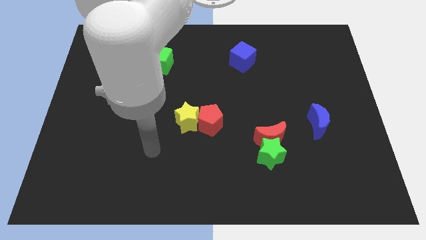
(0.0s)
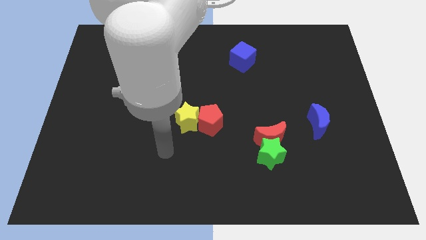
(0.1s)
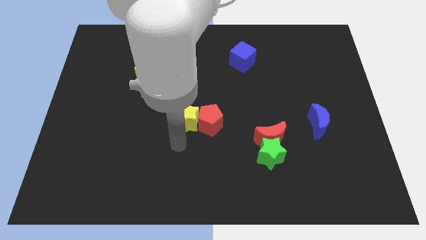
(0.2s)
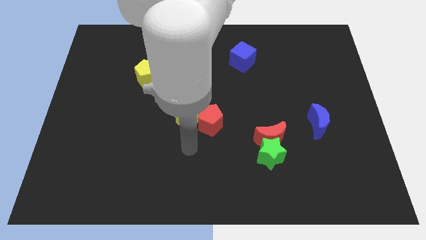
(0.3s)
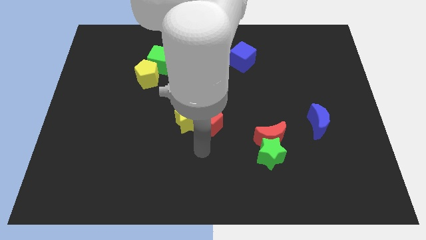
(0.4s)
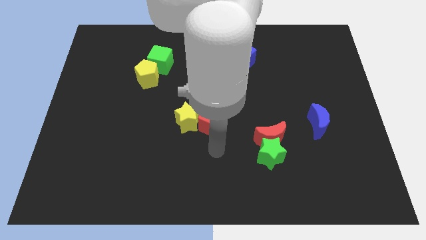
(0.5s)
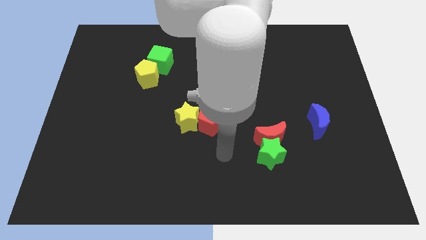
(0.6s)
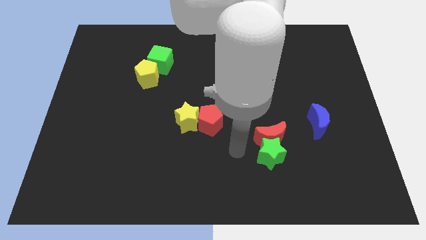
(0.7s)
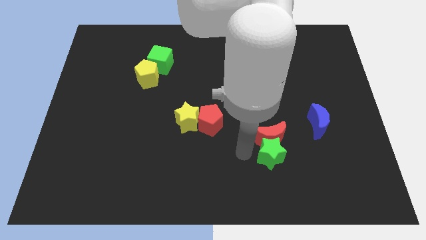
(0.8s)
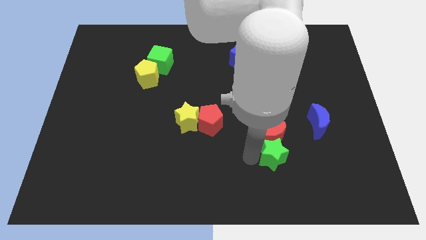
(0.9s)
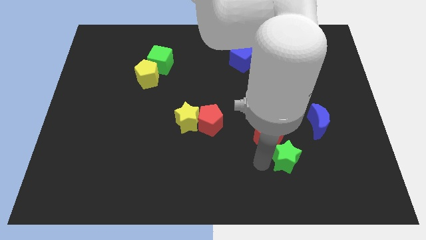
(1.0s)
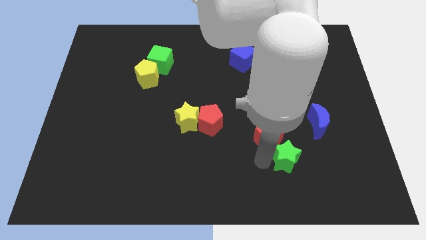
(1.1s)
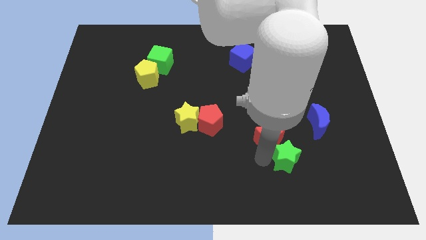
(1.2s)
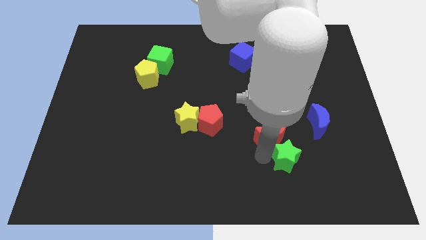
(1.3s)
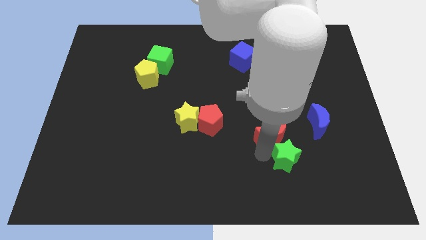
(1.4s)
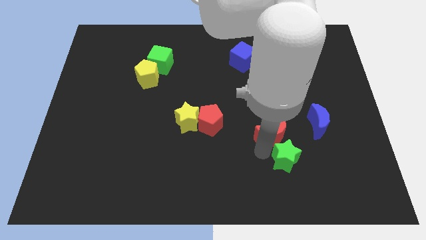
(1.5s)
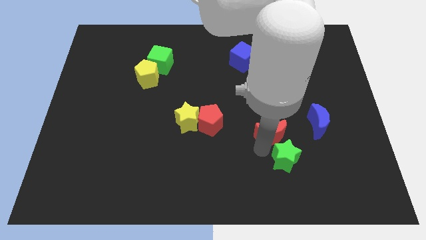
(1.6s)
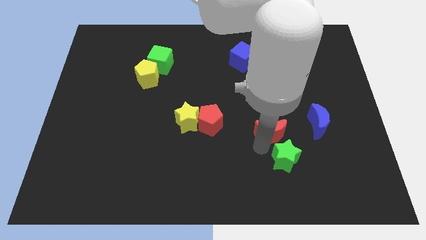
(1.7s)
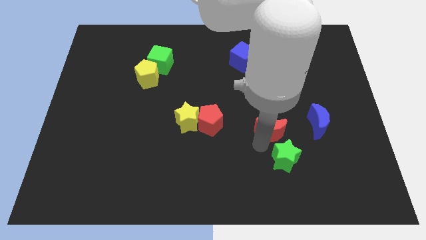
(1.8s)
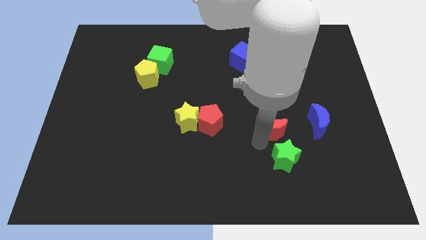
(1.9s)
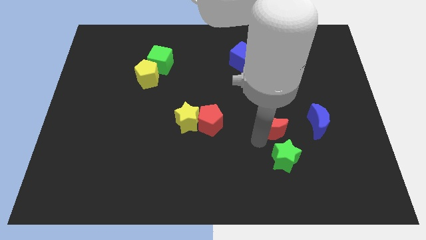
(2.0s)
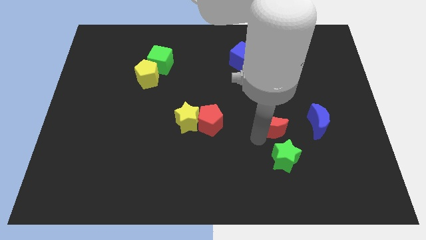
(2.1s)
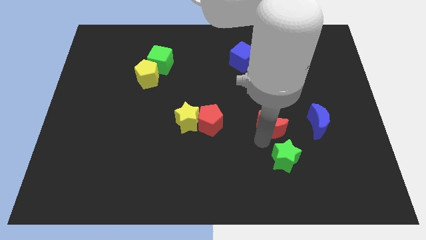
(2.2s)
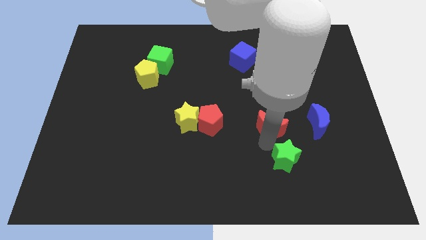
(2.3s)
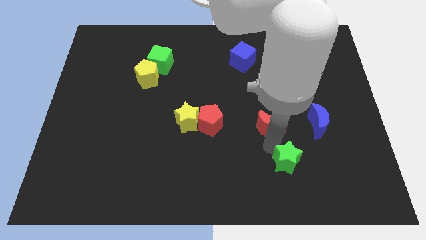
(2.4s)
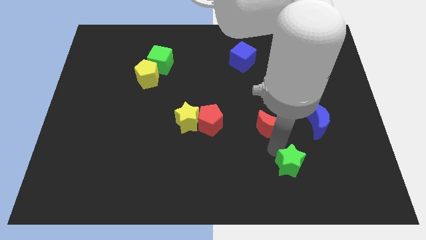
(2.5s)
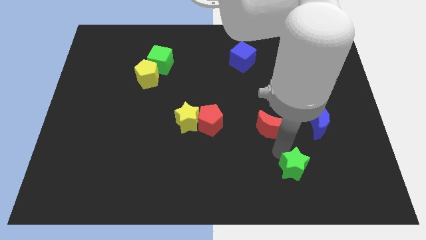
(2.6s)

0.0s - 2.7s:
move the red moon away from the green star

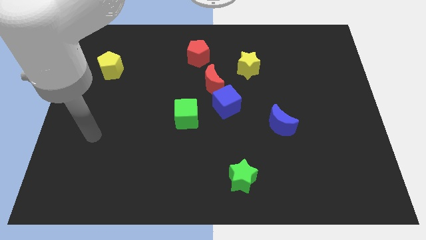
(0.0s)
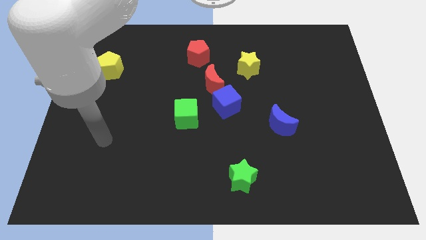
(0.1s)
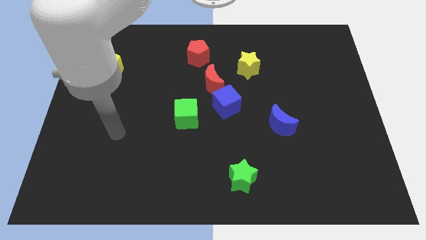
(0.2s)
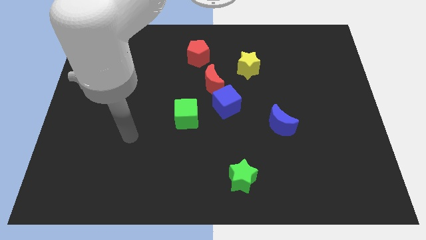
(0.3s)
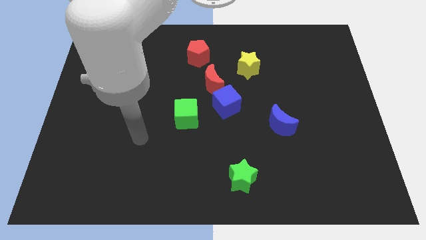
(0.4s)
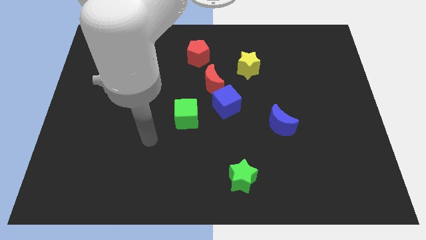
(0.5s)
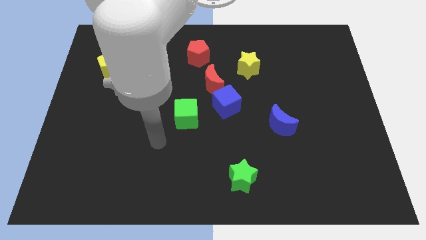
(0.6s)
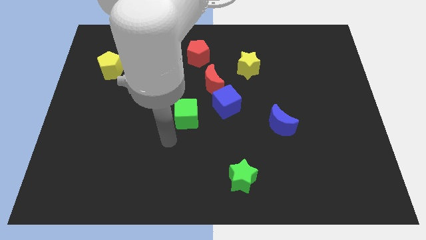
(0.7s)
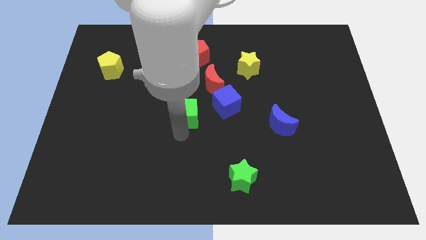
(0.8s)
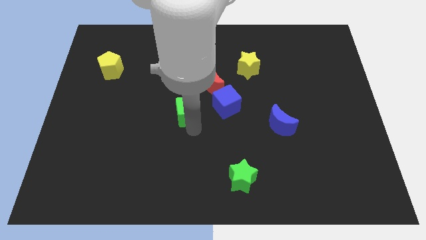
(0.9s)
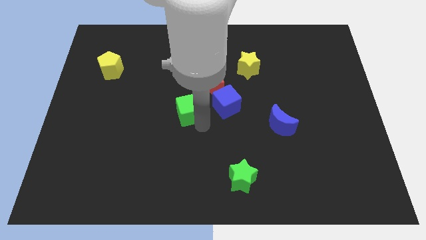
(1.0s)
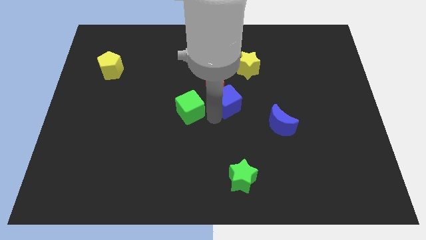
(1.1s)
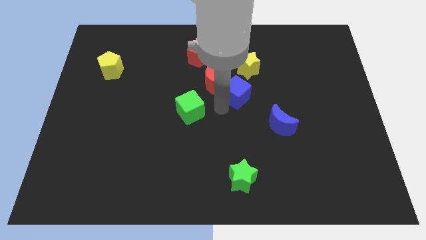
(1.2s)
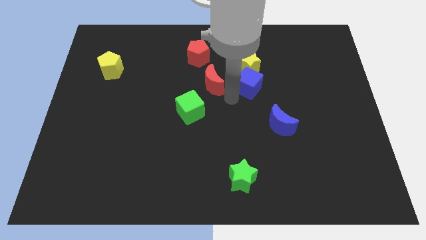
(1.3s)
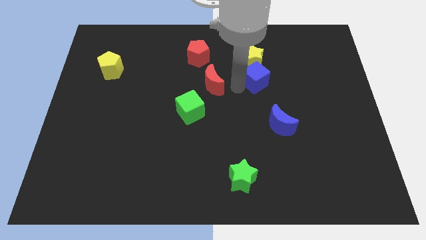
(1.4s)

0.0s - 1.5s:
separate the red moon from the blue cube

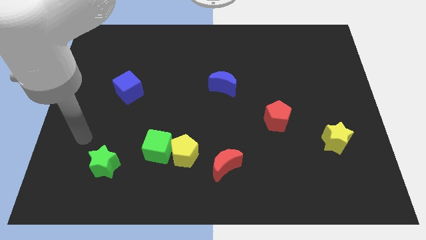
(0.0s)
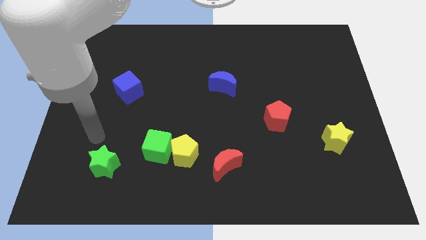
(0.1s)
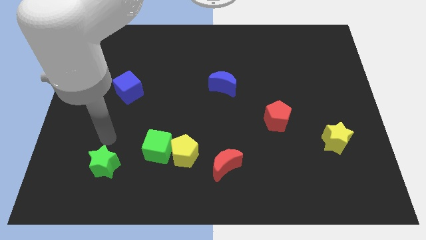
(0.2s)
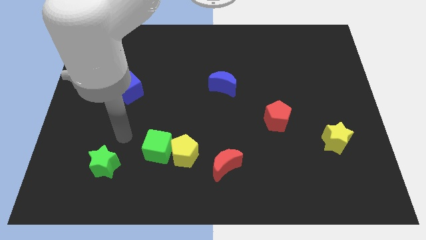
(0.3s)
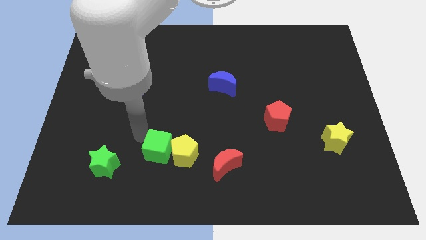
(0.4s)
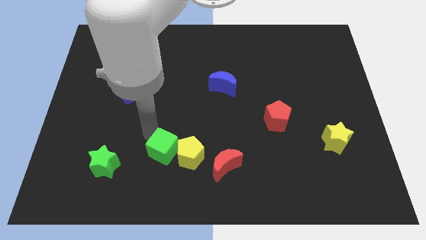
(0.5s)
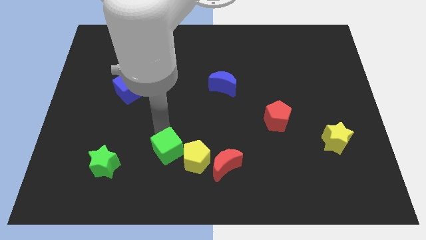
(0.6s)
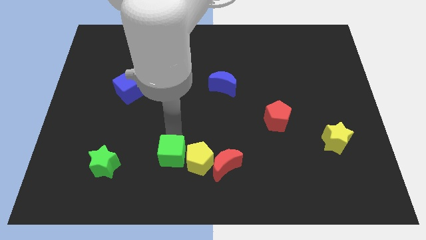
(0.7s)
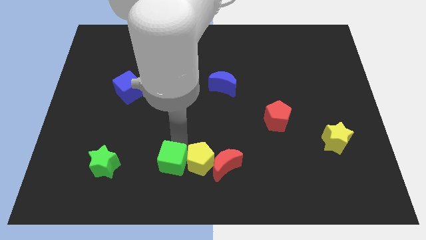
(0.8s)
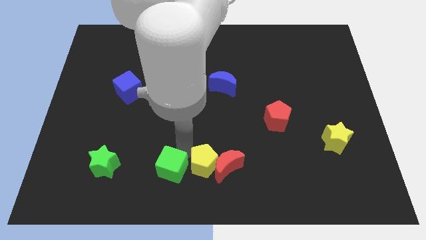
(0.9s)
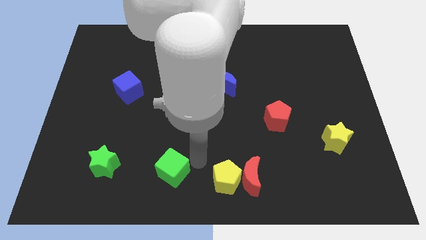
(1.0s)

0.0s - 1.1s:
pull the green cube apart from the yellow pentagon

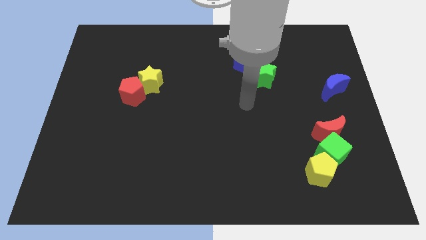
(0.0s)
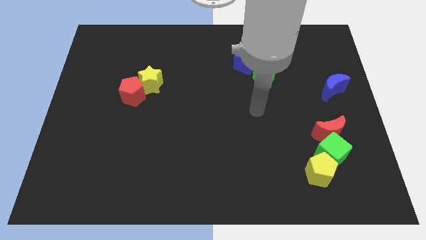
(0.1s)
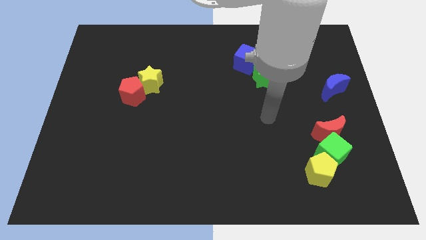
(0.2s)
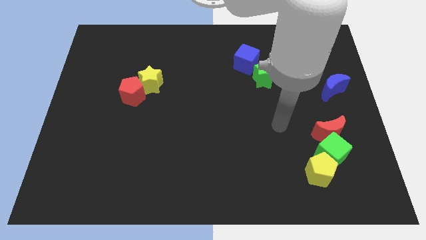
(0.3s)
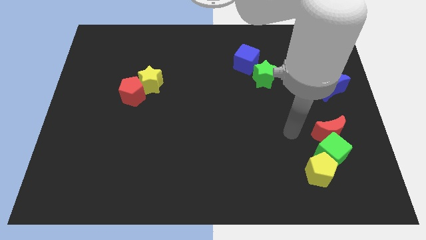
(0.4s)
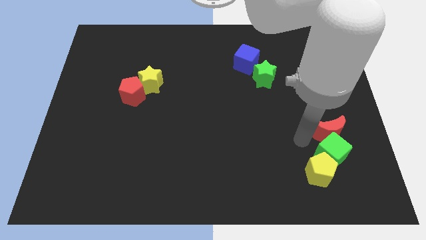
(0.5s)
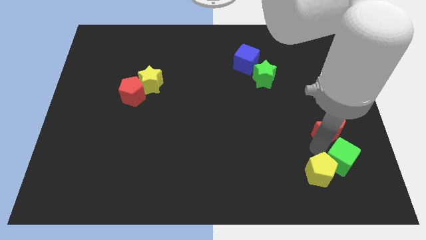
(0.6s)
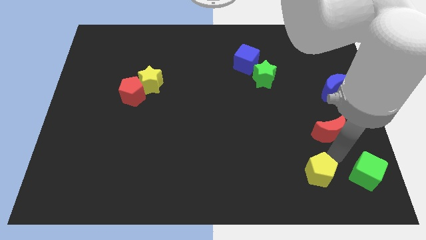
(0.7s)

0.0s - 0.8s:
pull the red moon apart from the green cube

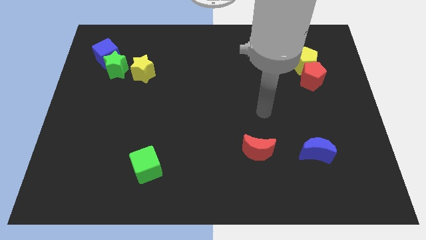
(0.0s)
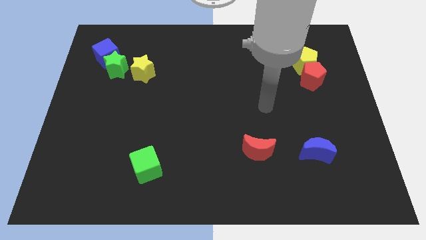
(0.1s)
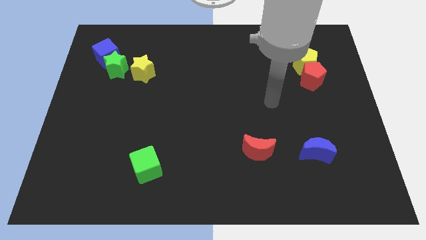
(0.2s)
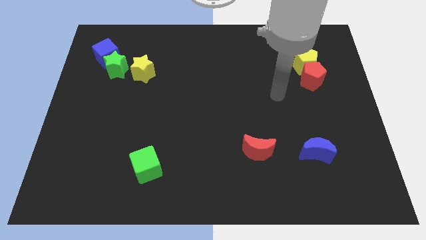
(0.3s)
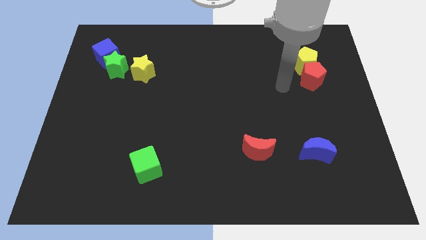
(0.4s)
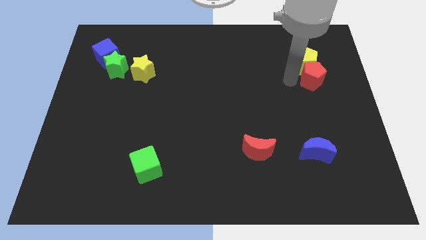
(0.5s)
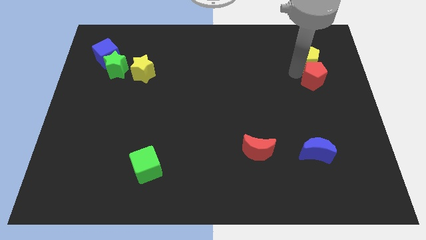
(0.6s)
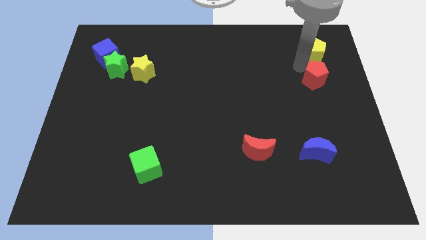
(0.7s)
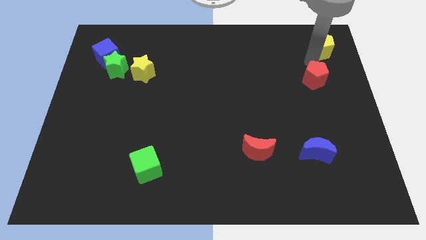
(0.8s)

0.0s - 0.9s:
pull the red pentagon apart from the yellow pentagon

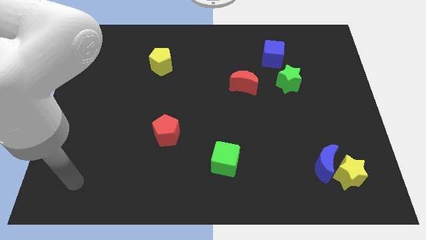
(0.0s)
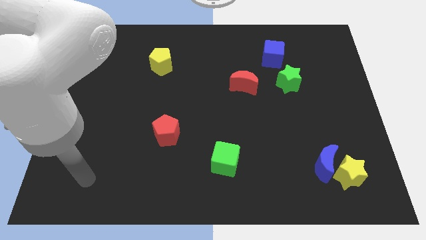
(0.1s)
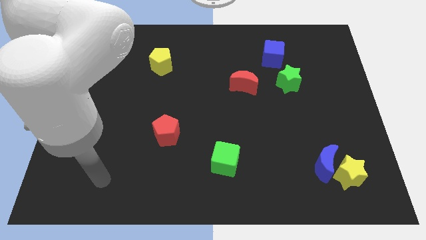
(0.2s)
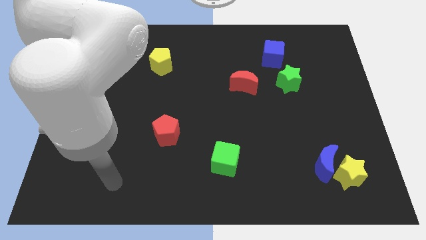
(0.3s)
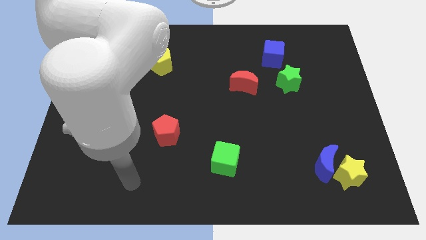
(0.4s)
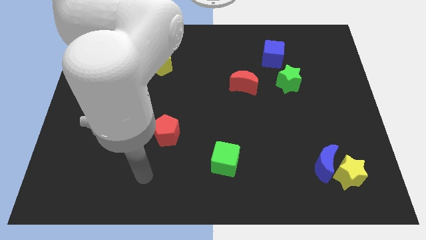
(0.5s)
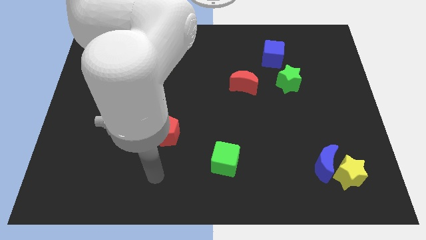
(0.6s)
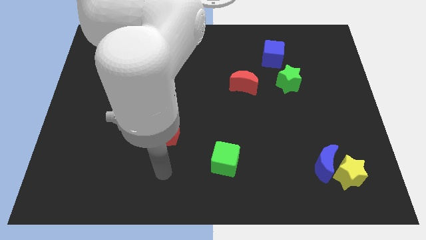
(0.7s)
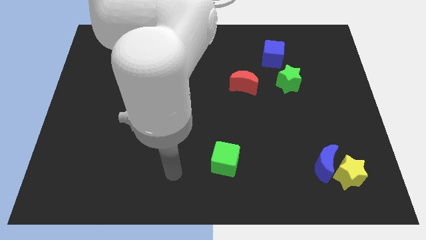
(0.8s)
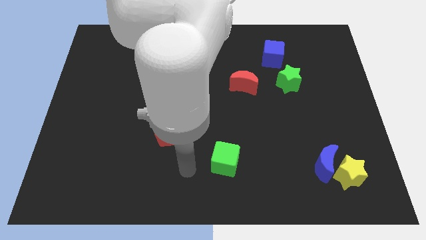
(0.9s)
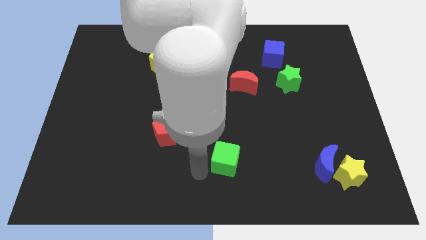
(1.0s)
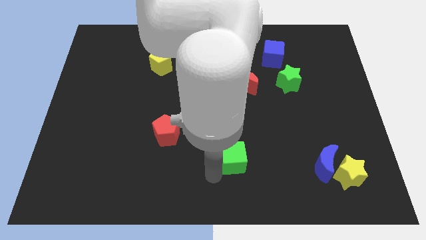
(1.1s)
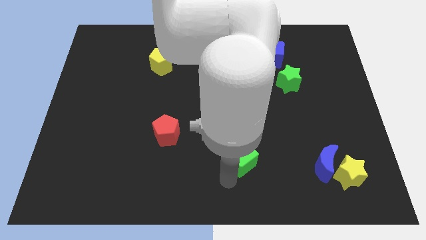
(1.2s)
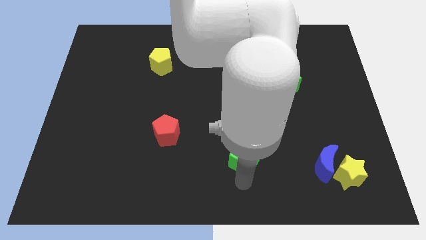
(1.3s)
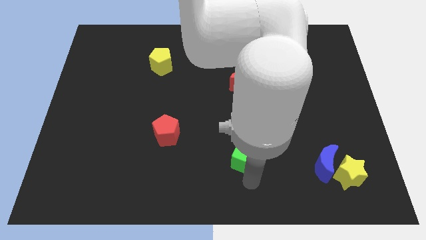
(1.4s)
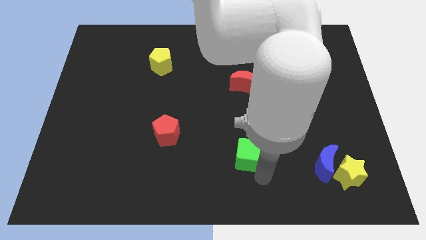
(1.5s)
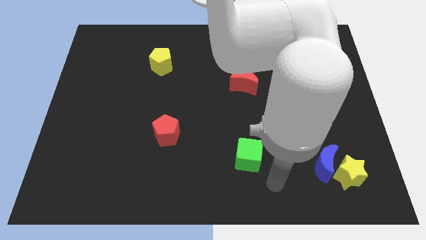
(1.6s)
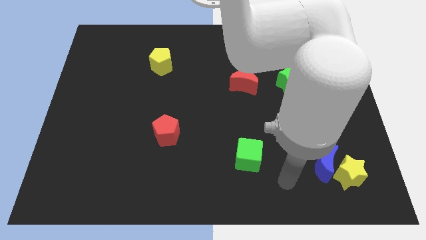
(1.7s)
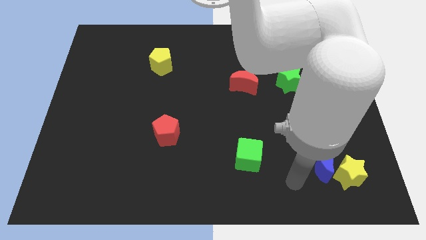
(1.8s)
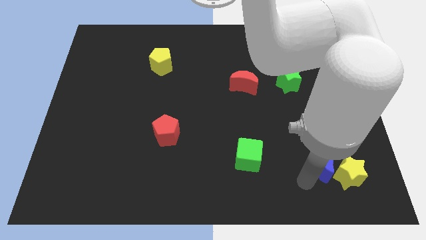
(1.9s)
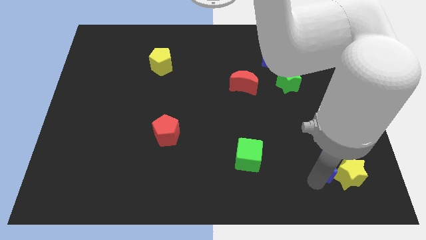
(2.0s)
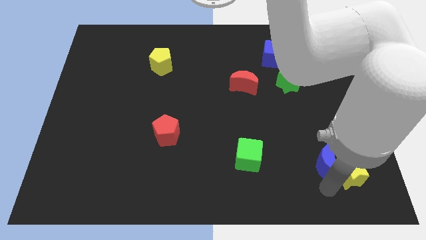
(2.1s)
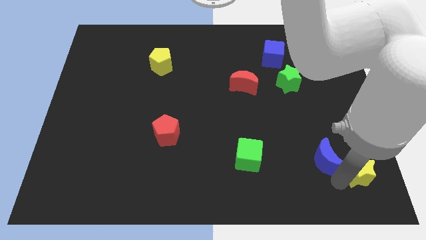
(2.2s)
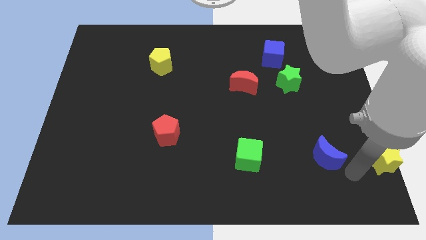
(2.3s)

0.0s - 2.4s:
separate the blue moon from the yellow star
